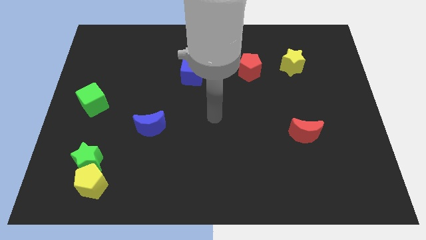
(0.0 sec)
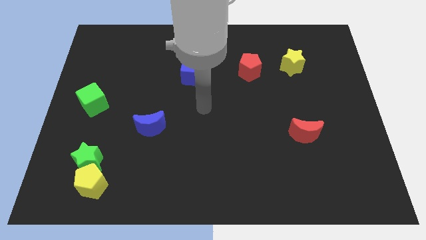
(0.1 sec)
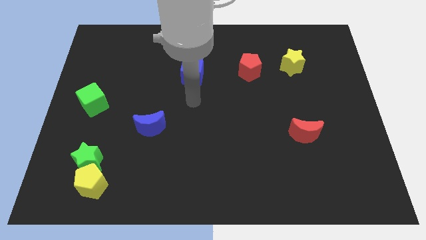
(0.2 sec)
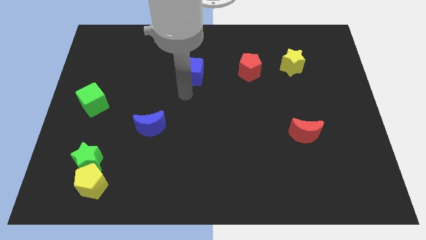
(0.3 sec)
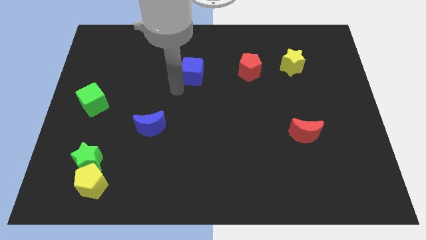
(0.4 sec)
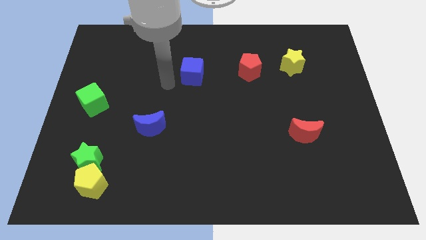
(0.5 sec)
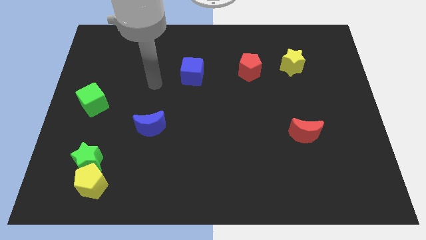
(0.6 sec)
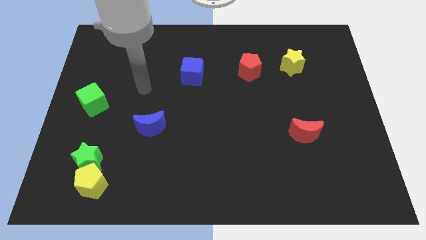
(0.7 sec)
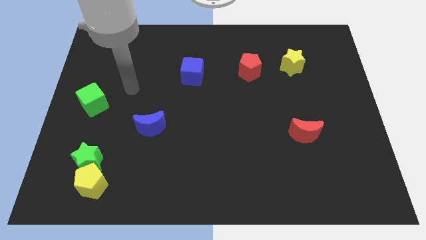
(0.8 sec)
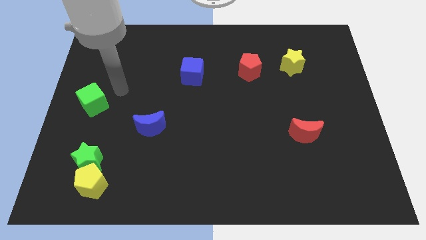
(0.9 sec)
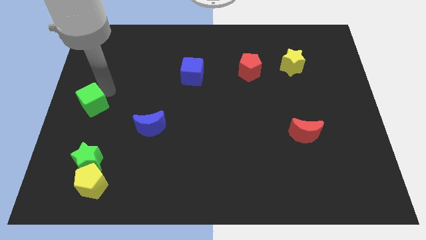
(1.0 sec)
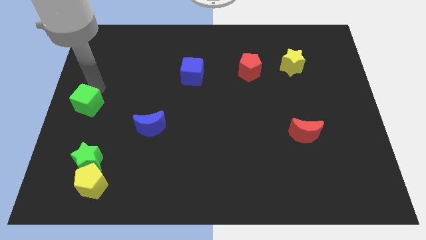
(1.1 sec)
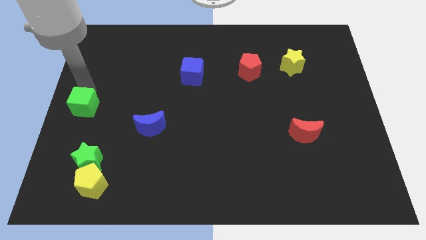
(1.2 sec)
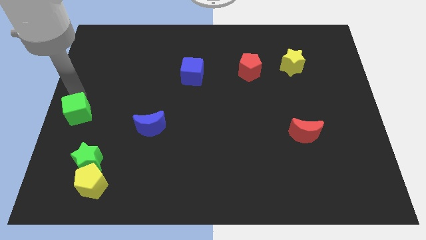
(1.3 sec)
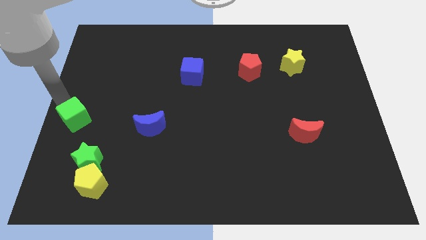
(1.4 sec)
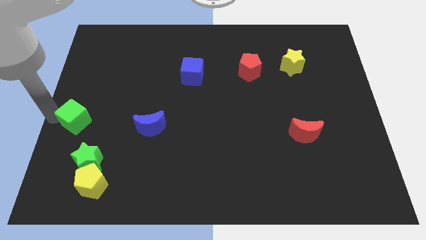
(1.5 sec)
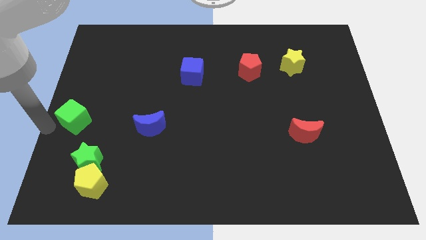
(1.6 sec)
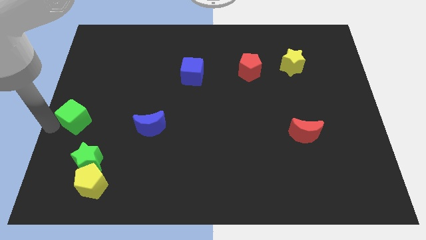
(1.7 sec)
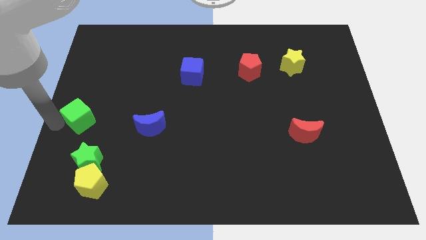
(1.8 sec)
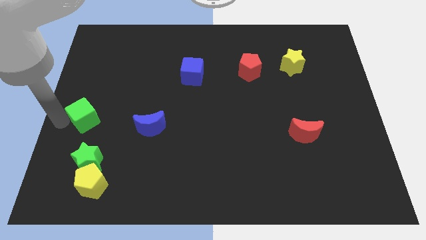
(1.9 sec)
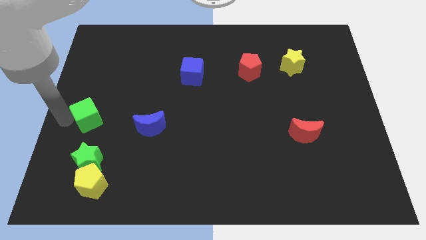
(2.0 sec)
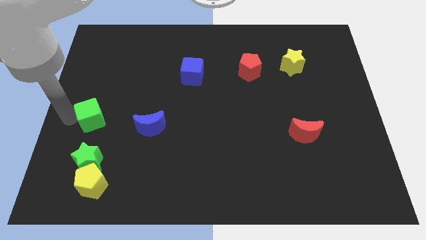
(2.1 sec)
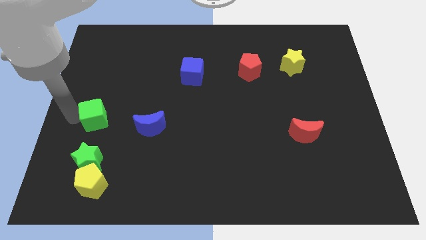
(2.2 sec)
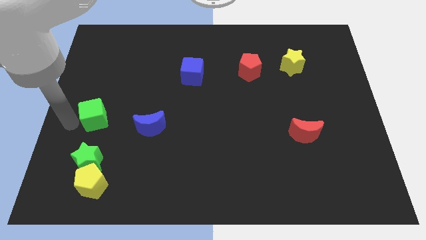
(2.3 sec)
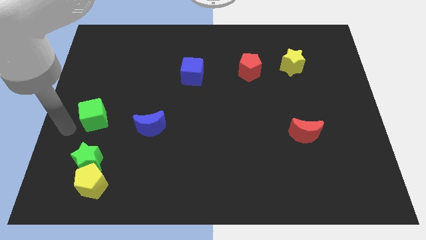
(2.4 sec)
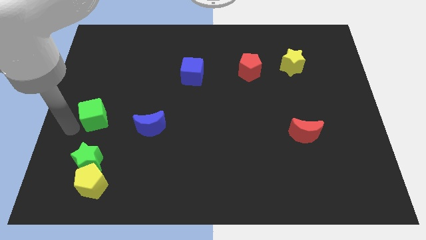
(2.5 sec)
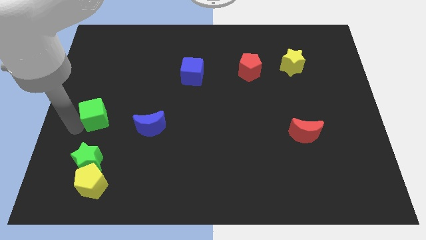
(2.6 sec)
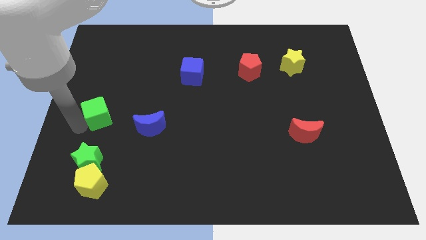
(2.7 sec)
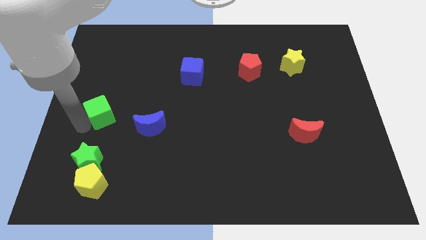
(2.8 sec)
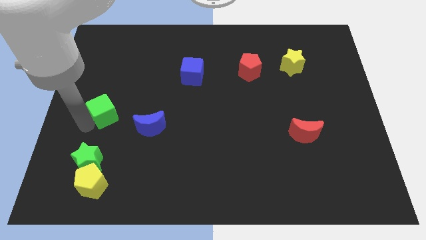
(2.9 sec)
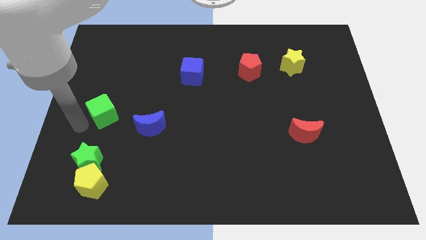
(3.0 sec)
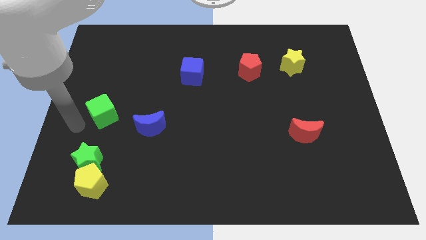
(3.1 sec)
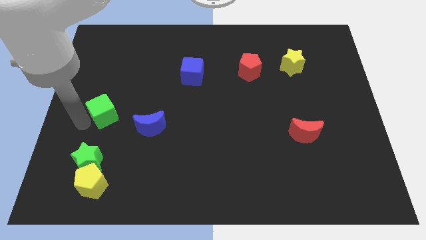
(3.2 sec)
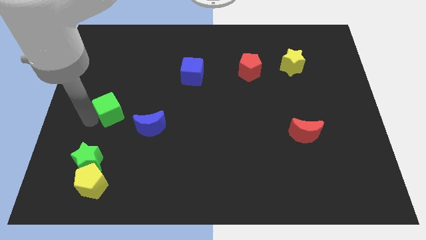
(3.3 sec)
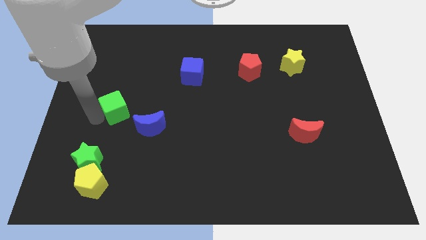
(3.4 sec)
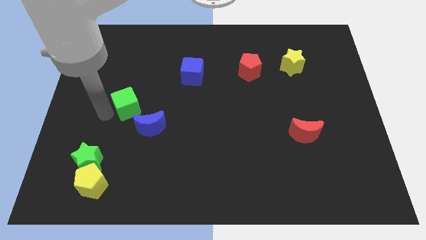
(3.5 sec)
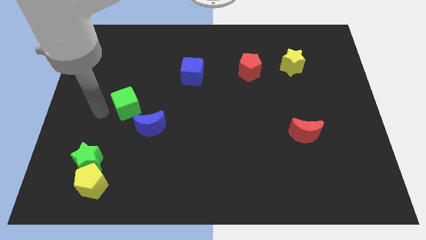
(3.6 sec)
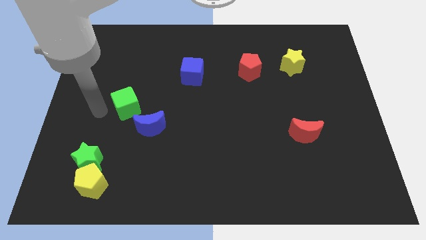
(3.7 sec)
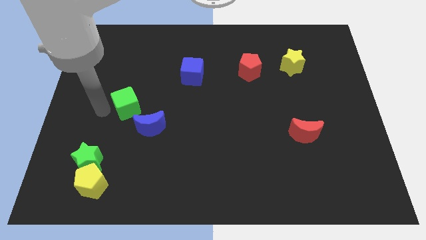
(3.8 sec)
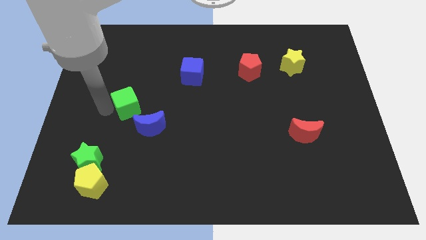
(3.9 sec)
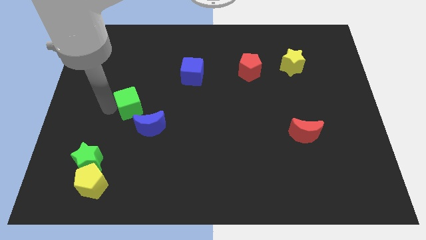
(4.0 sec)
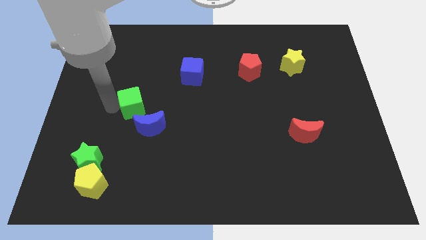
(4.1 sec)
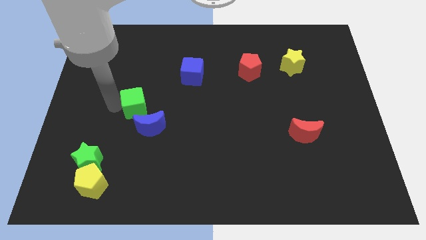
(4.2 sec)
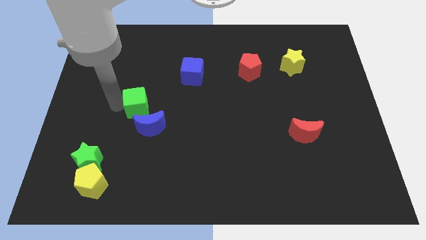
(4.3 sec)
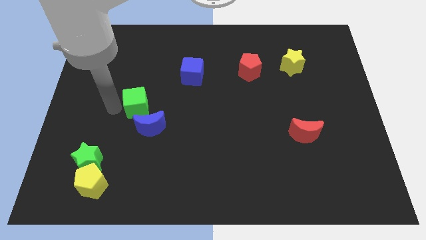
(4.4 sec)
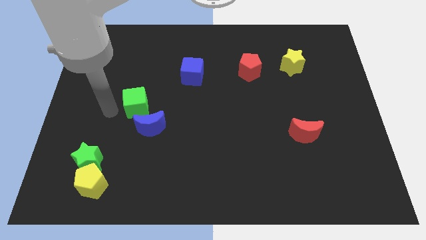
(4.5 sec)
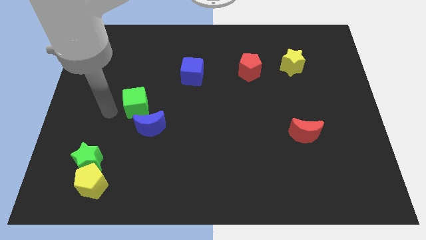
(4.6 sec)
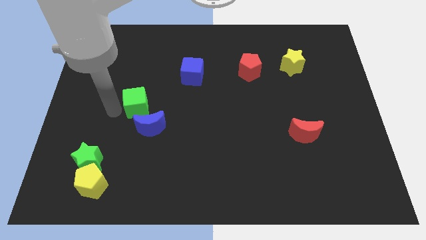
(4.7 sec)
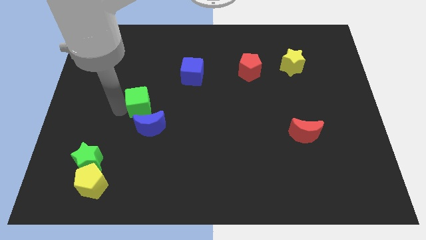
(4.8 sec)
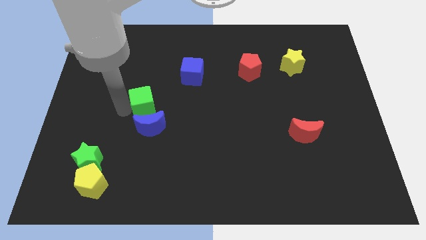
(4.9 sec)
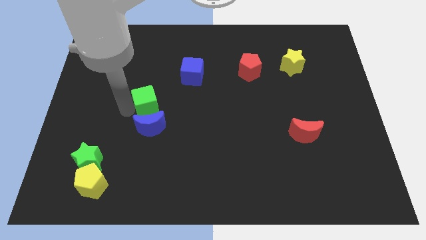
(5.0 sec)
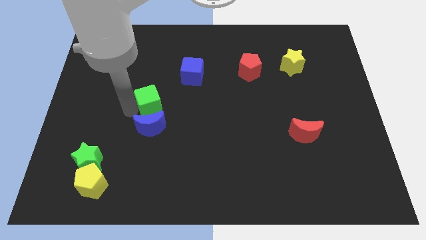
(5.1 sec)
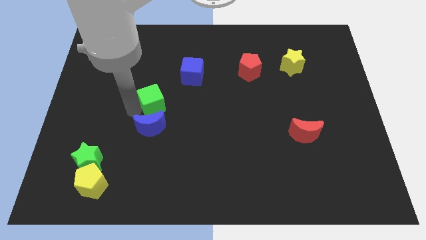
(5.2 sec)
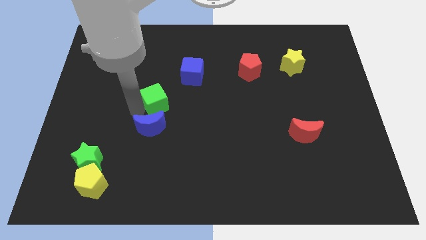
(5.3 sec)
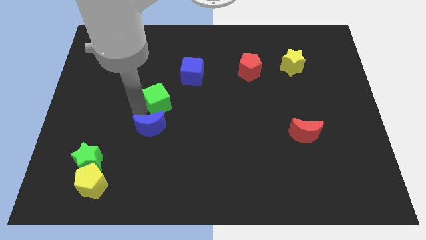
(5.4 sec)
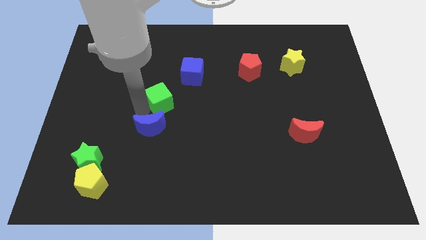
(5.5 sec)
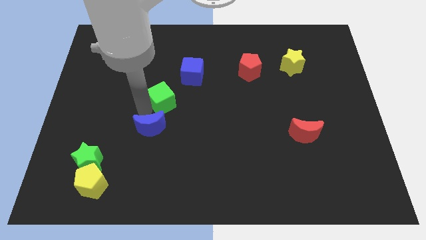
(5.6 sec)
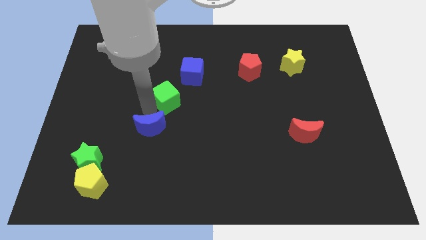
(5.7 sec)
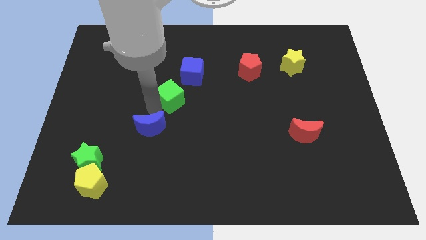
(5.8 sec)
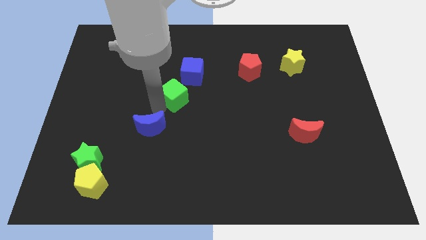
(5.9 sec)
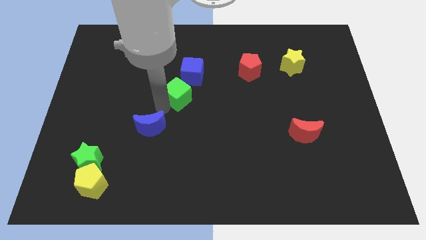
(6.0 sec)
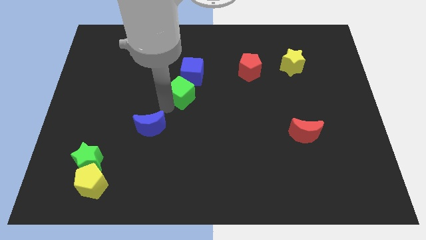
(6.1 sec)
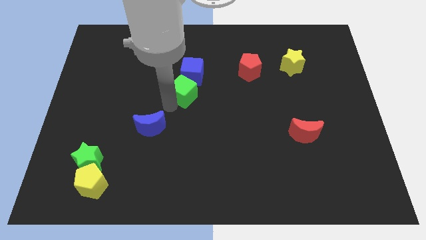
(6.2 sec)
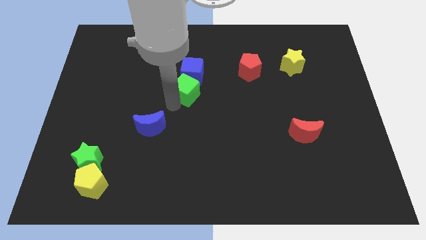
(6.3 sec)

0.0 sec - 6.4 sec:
move the green cube close to the blue cube

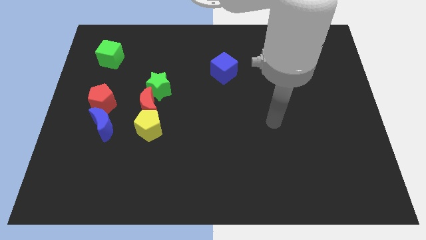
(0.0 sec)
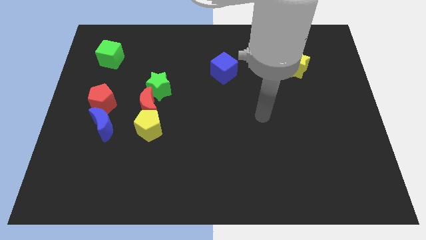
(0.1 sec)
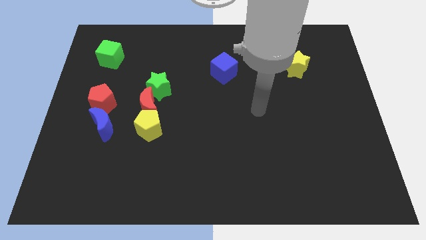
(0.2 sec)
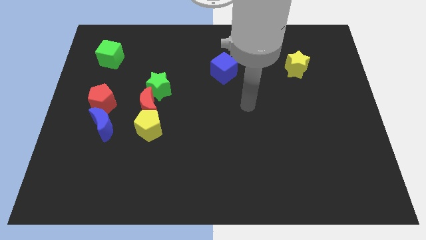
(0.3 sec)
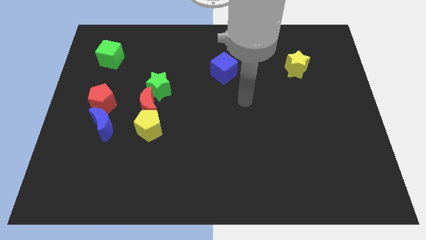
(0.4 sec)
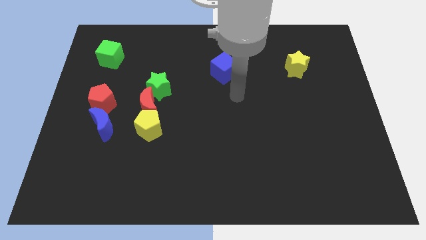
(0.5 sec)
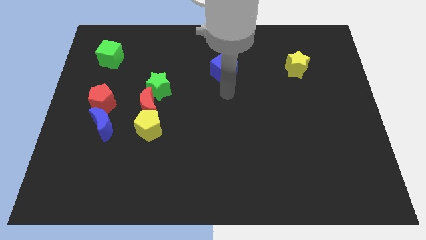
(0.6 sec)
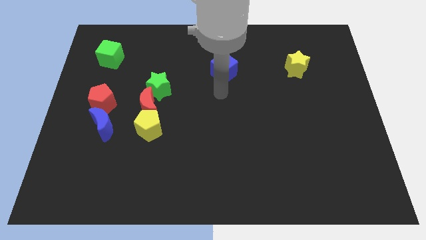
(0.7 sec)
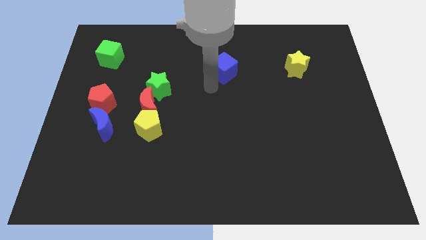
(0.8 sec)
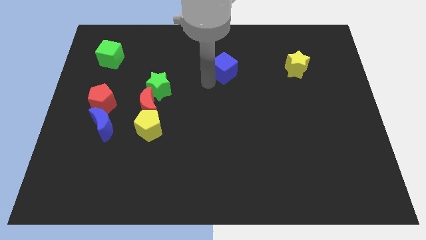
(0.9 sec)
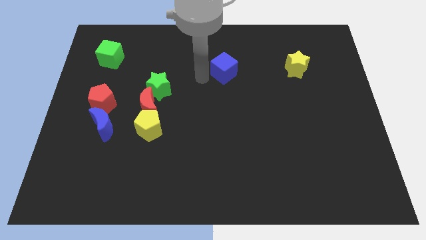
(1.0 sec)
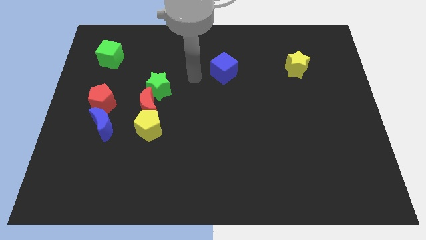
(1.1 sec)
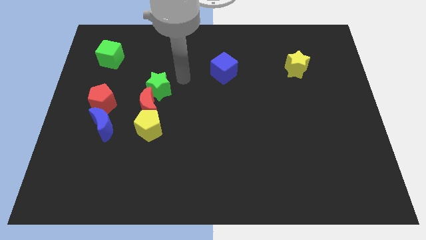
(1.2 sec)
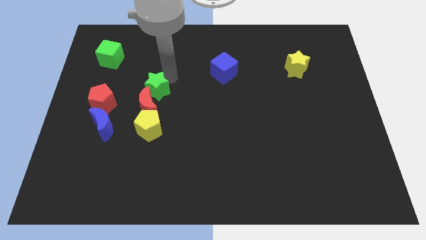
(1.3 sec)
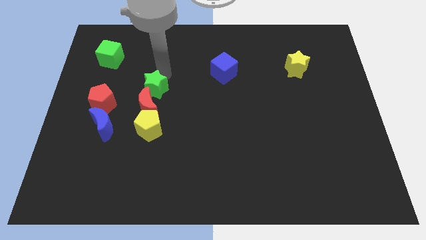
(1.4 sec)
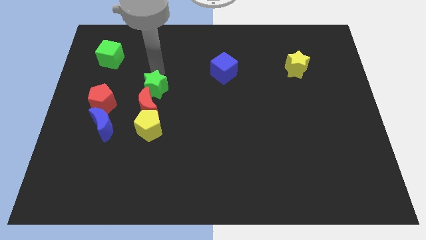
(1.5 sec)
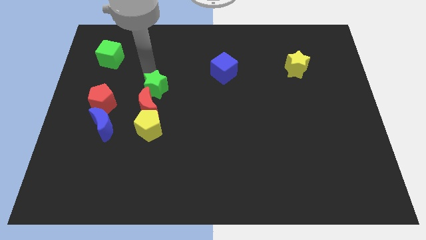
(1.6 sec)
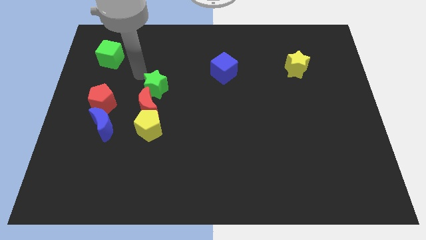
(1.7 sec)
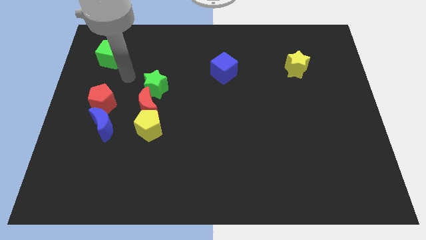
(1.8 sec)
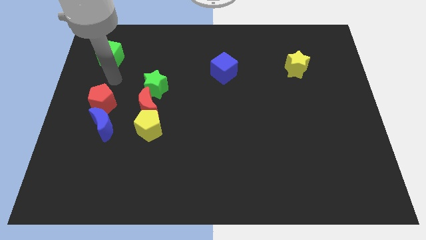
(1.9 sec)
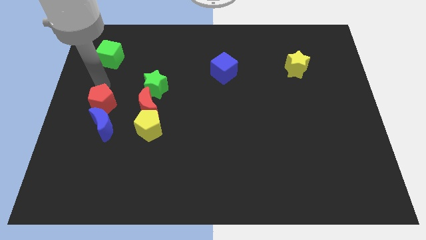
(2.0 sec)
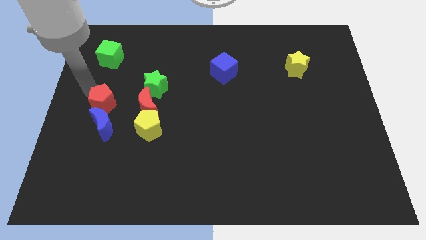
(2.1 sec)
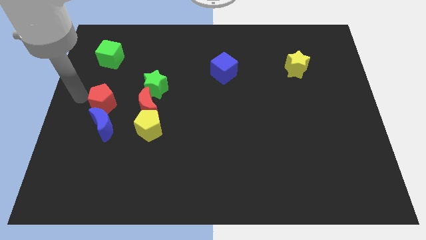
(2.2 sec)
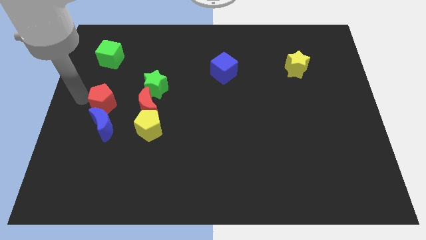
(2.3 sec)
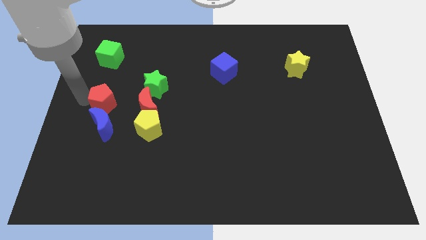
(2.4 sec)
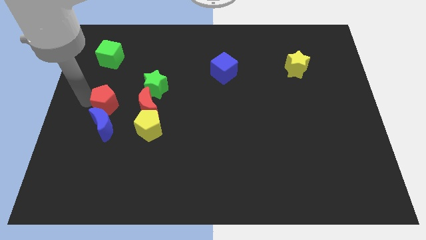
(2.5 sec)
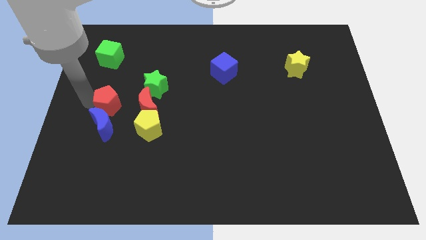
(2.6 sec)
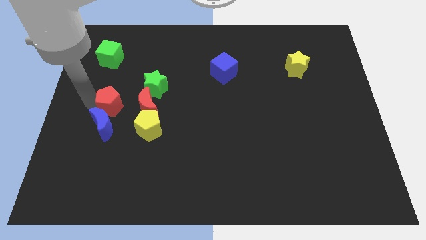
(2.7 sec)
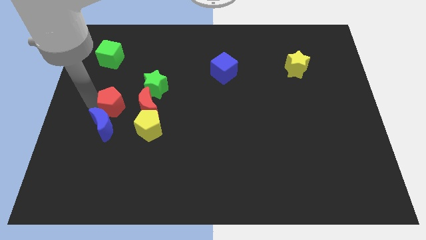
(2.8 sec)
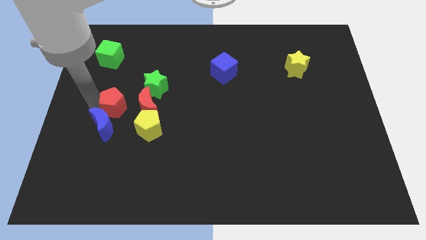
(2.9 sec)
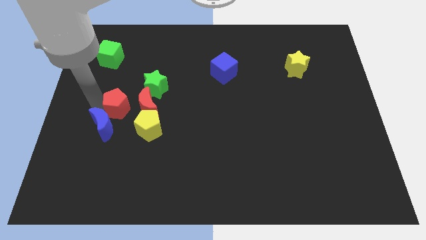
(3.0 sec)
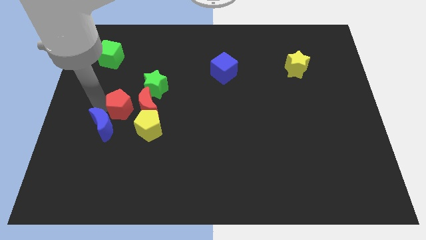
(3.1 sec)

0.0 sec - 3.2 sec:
put the red pentagon to the red moon
